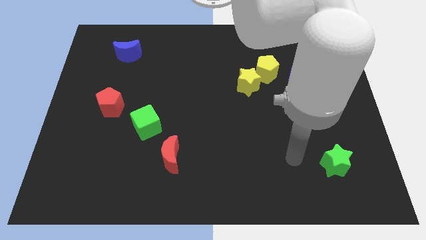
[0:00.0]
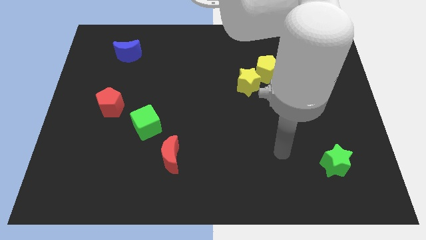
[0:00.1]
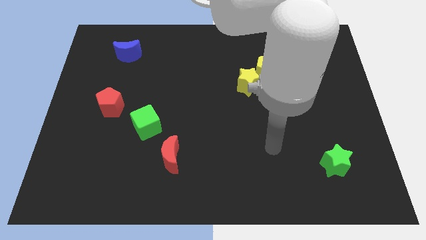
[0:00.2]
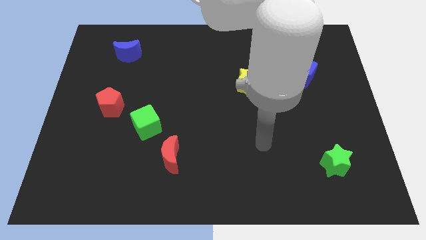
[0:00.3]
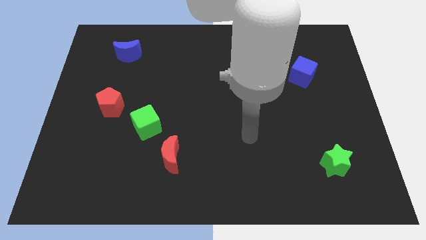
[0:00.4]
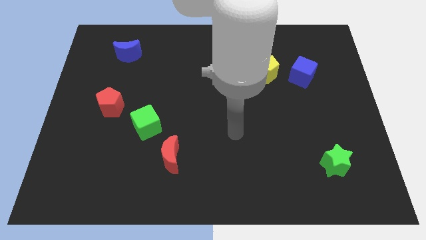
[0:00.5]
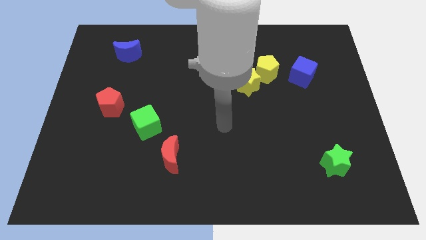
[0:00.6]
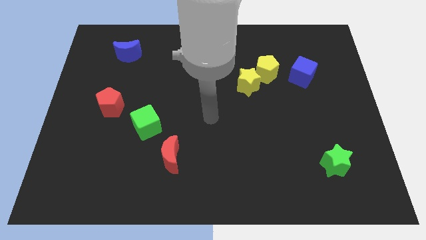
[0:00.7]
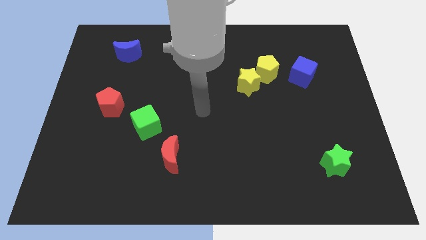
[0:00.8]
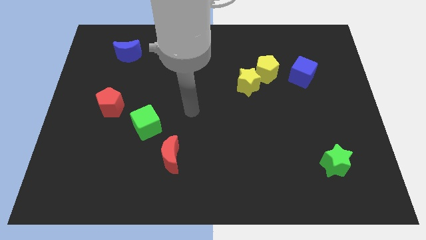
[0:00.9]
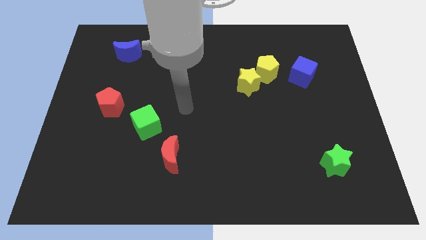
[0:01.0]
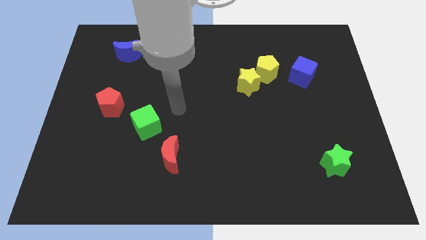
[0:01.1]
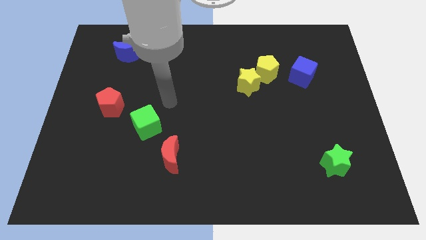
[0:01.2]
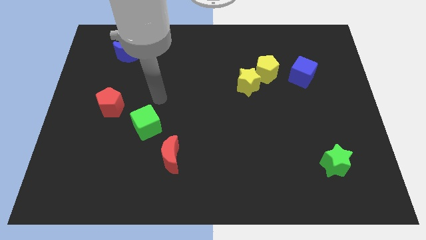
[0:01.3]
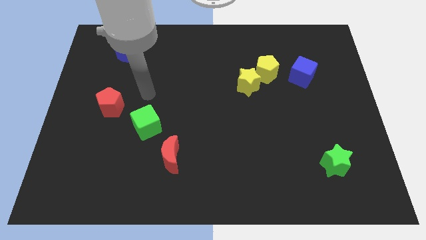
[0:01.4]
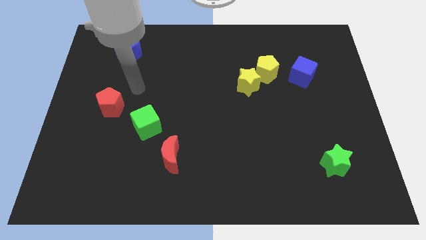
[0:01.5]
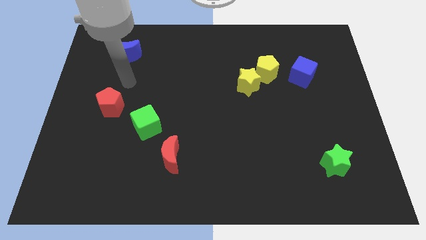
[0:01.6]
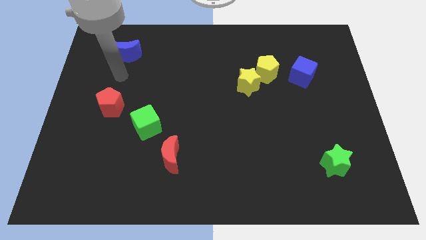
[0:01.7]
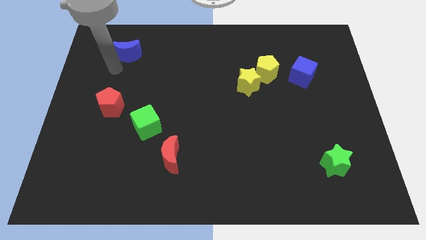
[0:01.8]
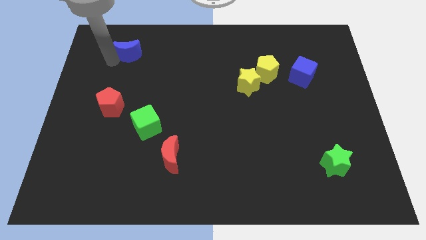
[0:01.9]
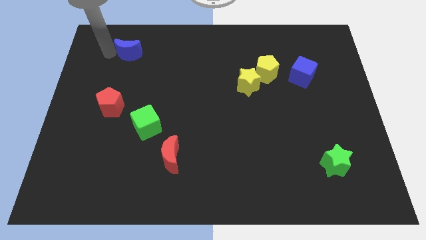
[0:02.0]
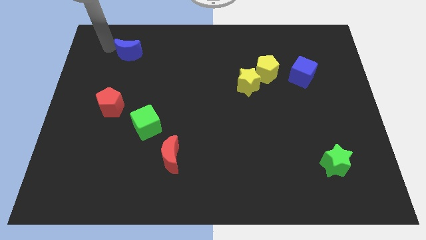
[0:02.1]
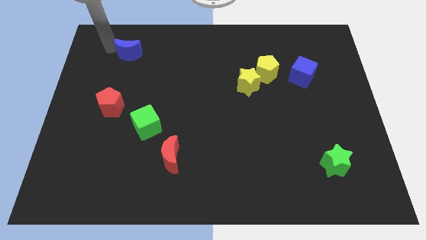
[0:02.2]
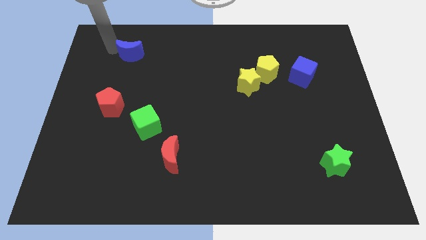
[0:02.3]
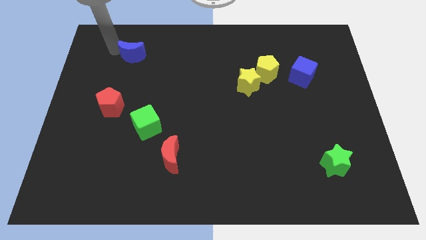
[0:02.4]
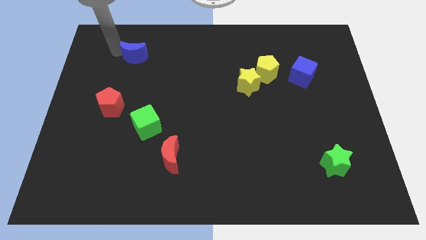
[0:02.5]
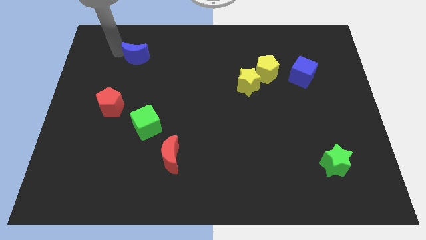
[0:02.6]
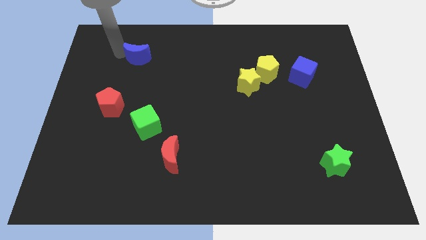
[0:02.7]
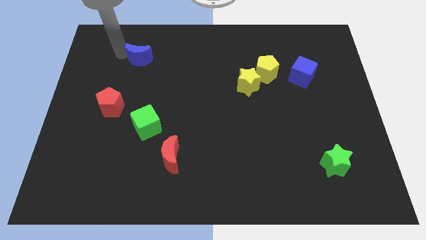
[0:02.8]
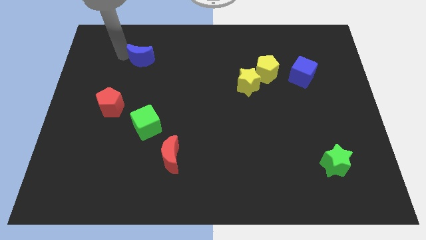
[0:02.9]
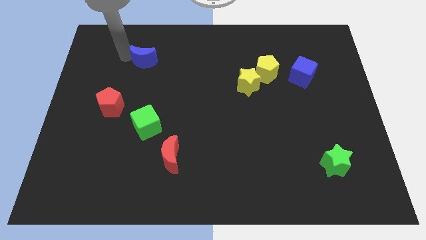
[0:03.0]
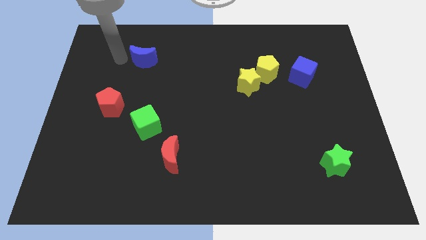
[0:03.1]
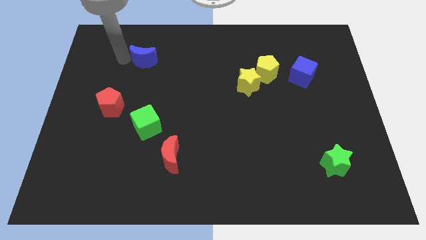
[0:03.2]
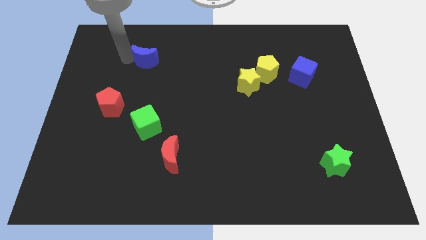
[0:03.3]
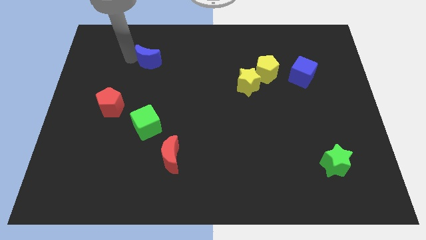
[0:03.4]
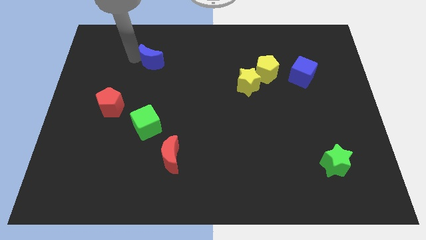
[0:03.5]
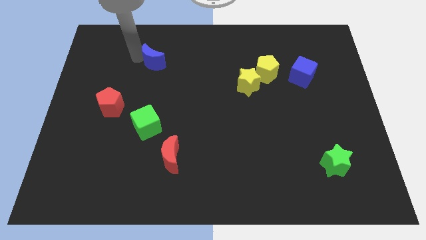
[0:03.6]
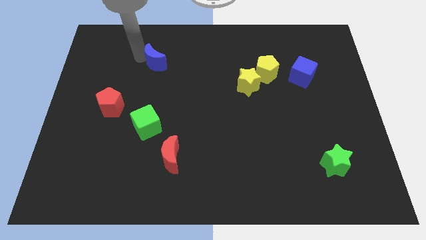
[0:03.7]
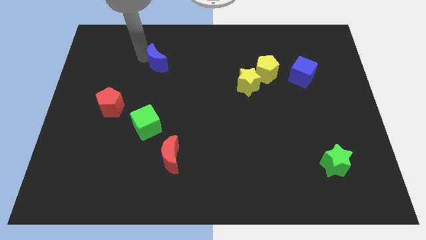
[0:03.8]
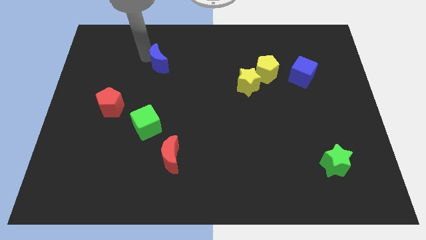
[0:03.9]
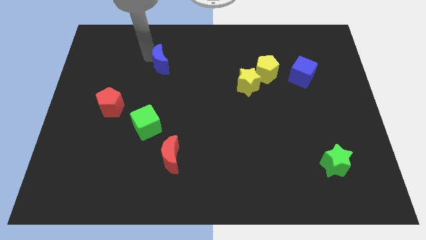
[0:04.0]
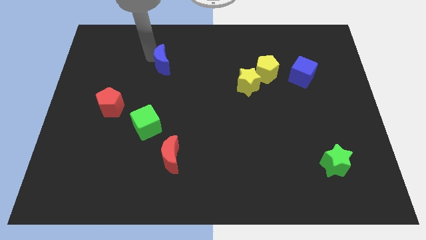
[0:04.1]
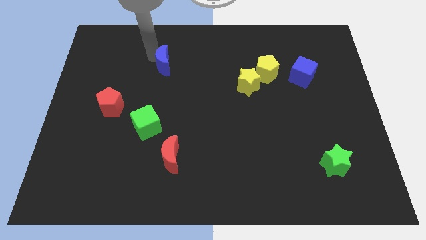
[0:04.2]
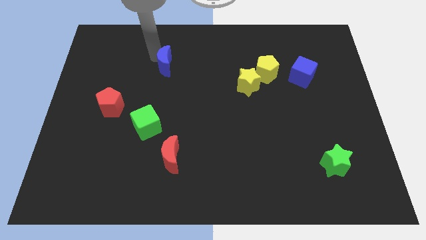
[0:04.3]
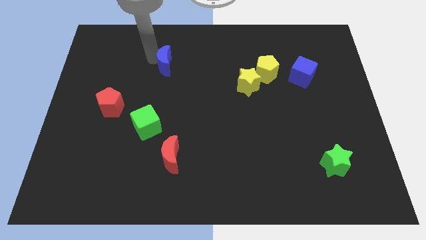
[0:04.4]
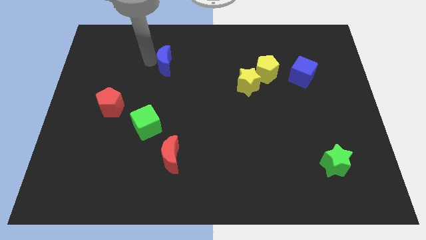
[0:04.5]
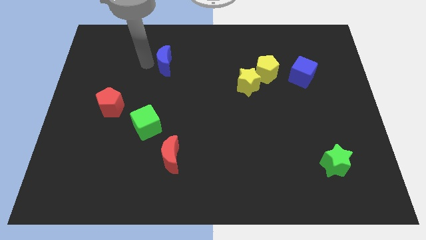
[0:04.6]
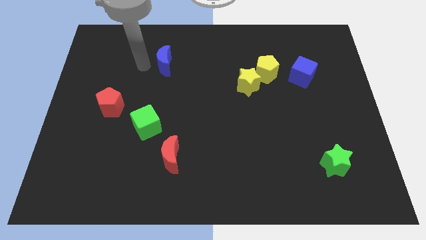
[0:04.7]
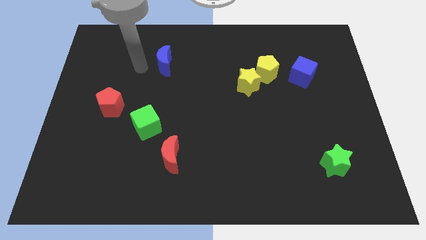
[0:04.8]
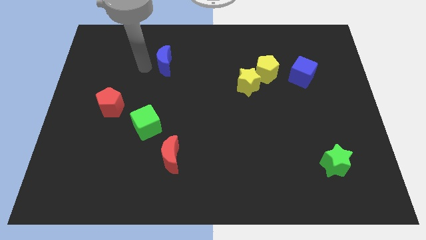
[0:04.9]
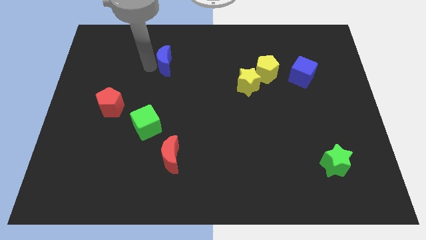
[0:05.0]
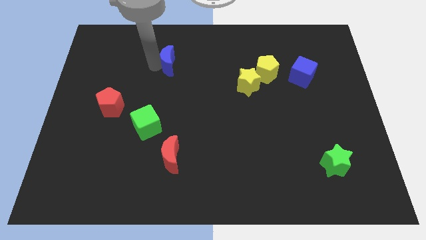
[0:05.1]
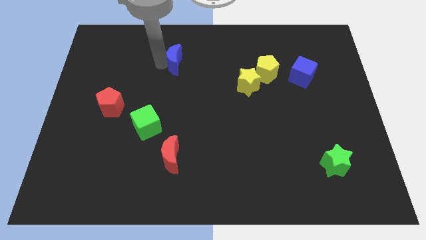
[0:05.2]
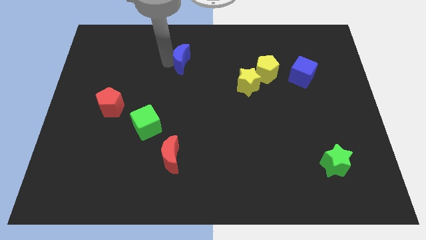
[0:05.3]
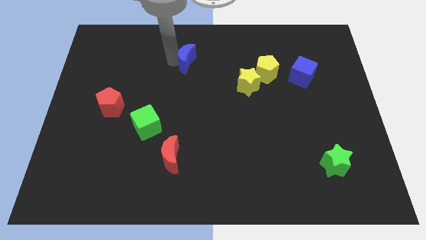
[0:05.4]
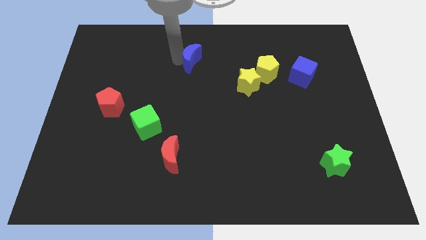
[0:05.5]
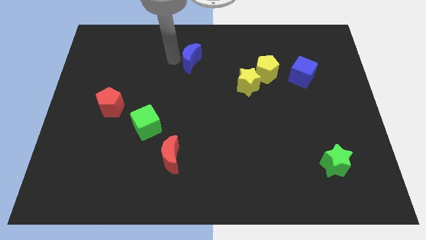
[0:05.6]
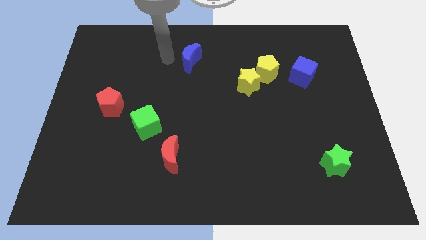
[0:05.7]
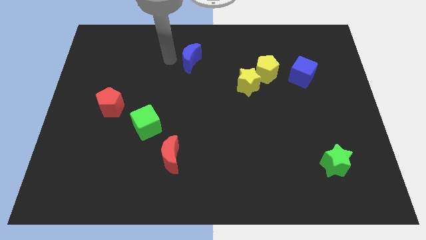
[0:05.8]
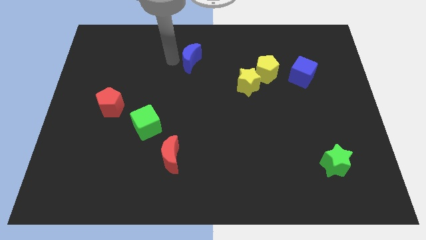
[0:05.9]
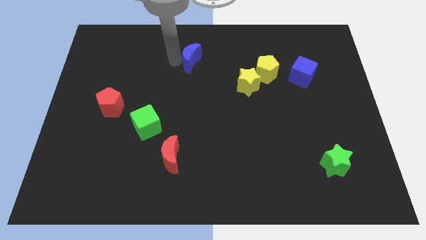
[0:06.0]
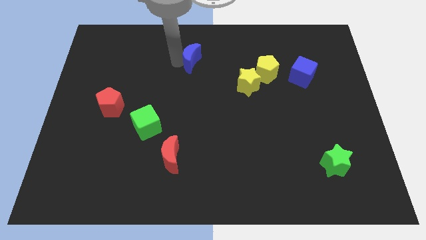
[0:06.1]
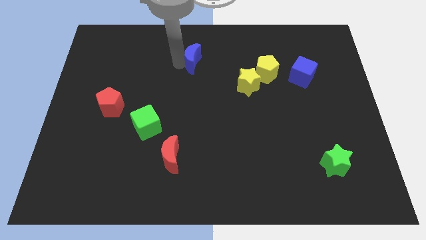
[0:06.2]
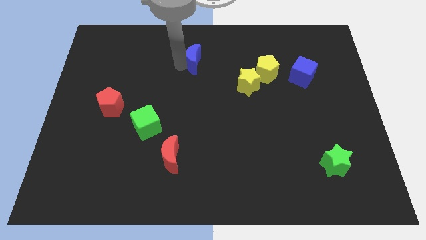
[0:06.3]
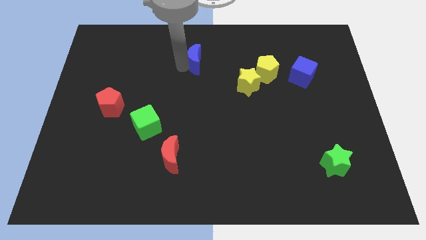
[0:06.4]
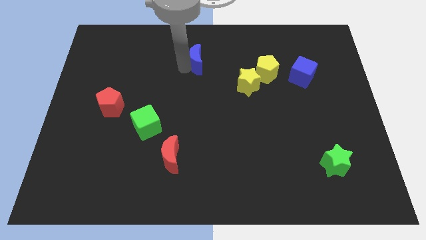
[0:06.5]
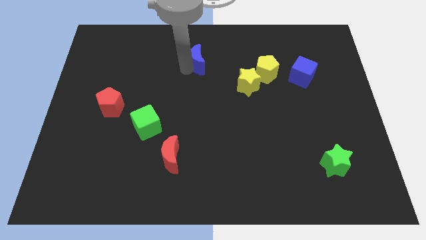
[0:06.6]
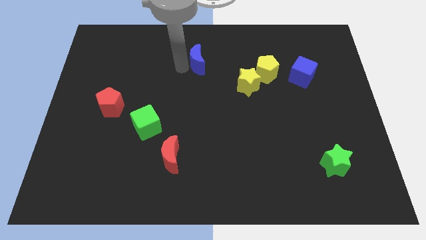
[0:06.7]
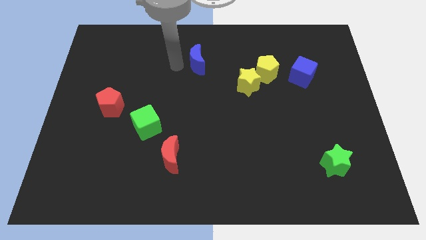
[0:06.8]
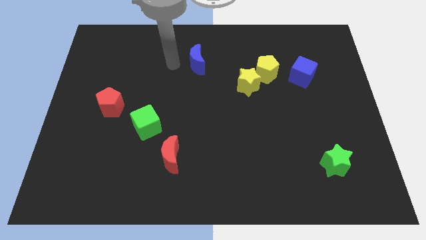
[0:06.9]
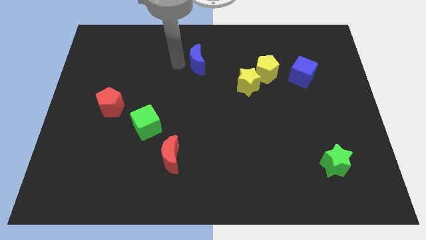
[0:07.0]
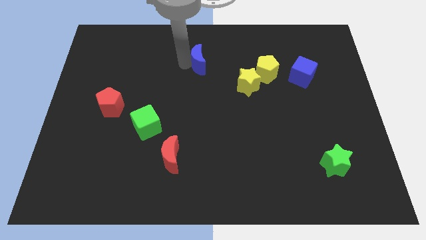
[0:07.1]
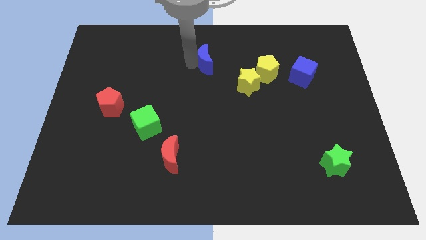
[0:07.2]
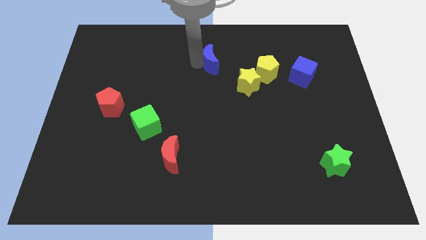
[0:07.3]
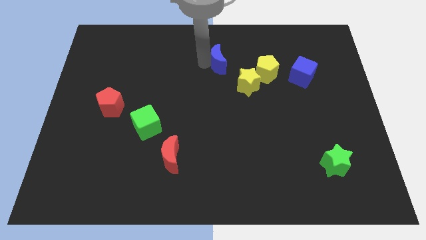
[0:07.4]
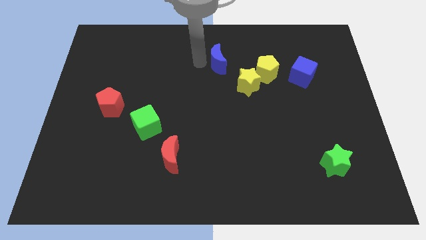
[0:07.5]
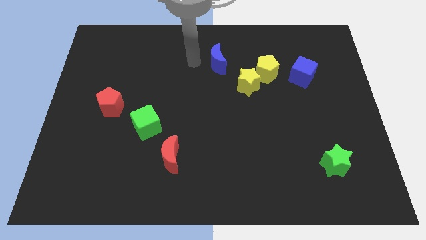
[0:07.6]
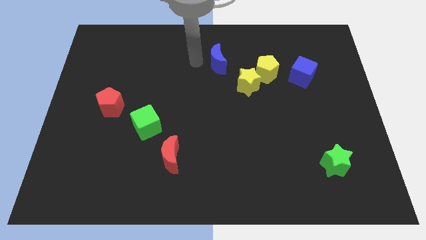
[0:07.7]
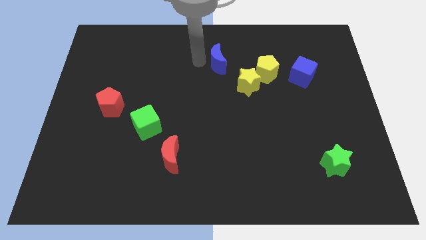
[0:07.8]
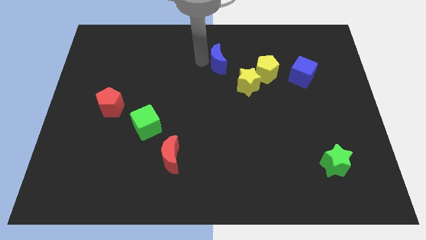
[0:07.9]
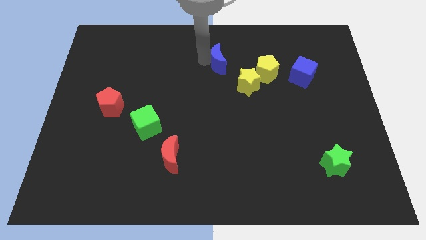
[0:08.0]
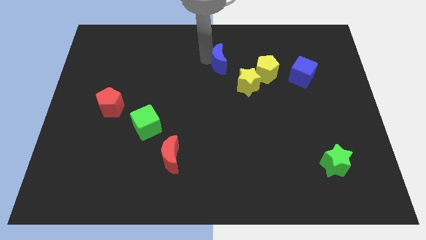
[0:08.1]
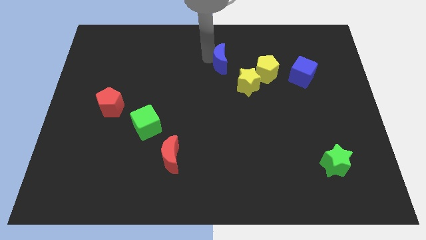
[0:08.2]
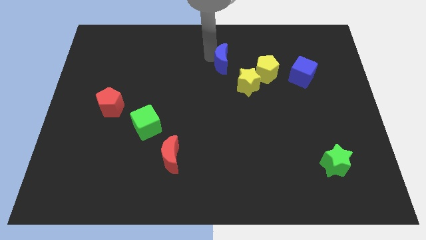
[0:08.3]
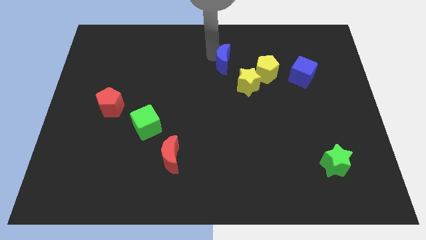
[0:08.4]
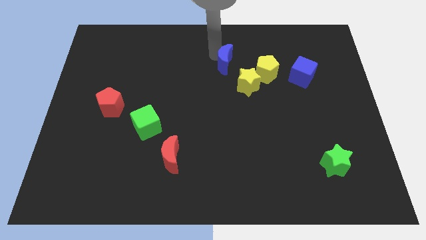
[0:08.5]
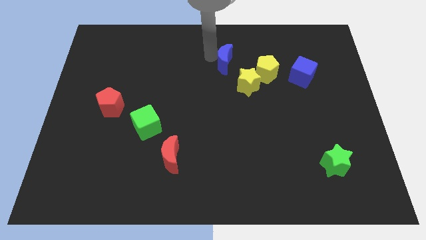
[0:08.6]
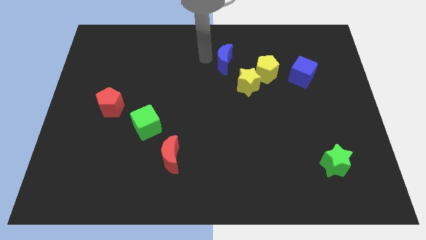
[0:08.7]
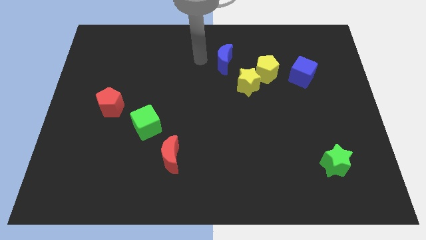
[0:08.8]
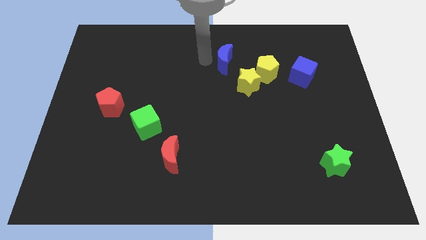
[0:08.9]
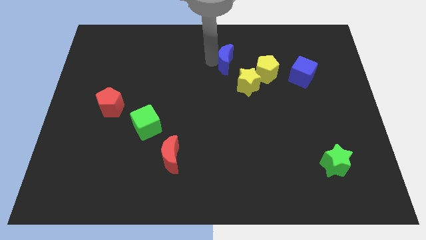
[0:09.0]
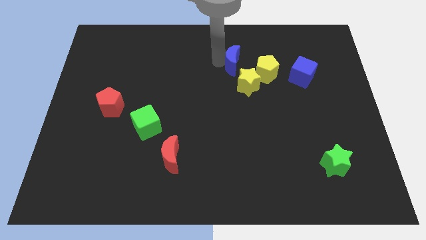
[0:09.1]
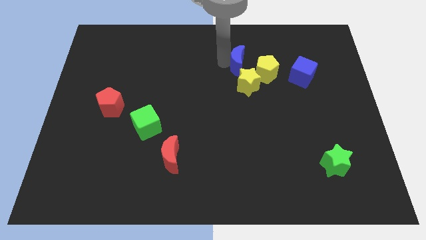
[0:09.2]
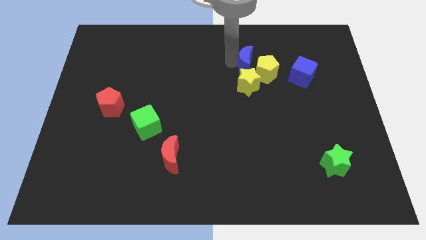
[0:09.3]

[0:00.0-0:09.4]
slide the blue moon close to the yellow pentagon
